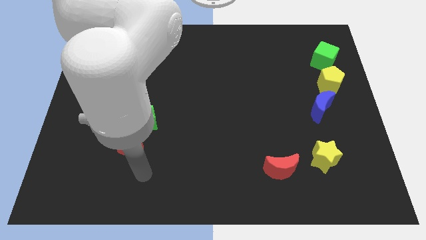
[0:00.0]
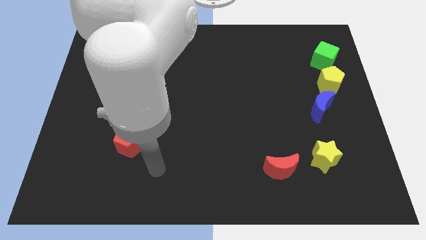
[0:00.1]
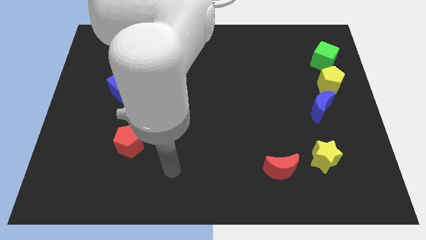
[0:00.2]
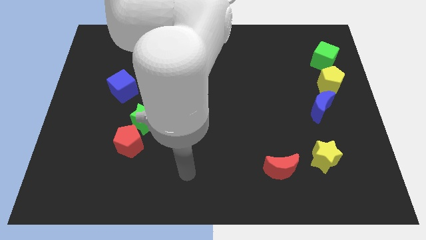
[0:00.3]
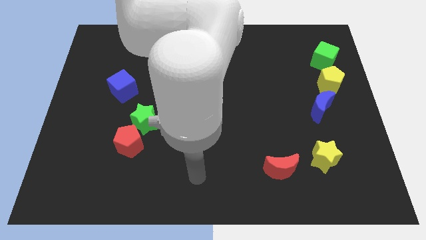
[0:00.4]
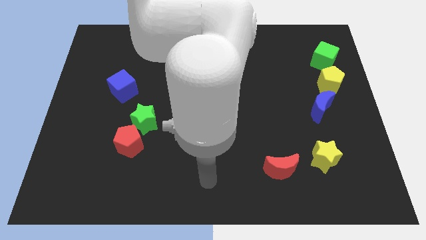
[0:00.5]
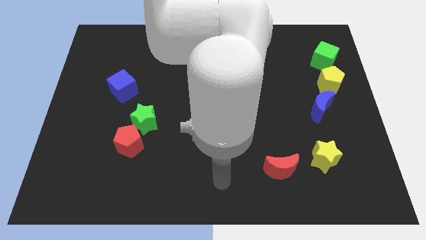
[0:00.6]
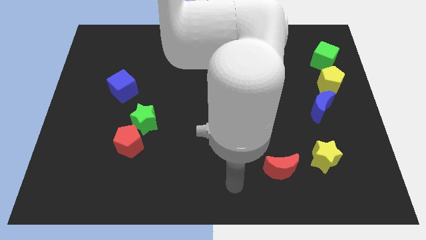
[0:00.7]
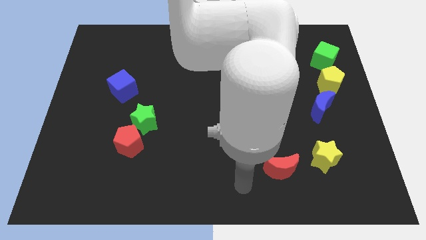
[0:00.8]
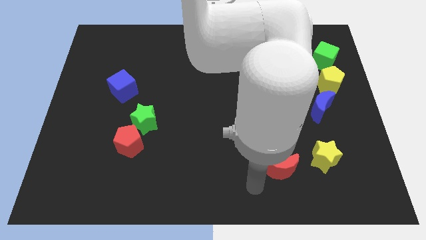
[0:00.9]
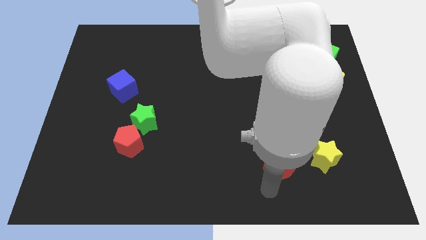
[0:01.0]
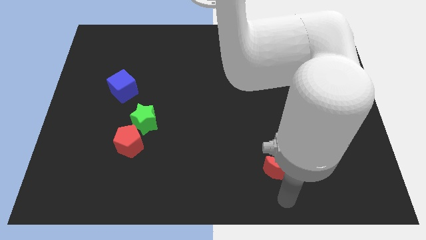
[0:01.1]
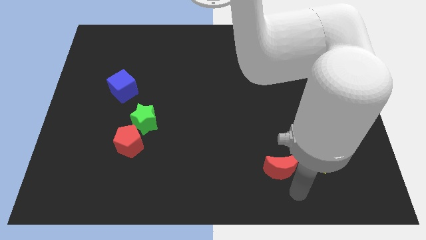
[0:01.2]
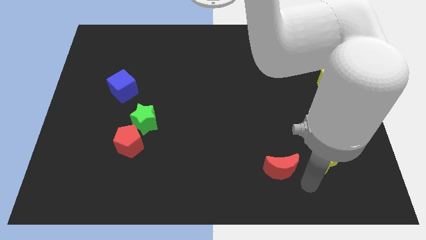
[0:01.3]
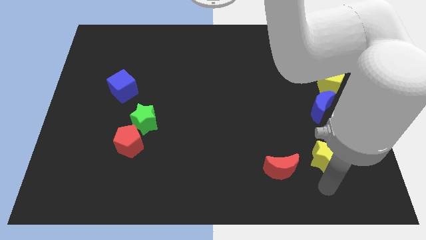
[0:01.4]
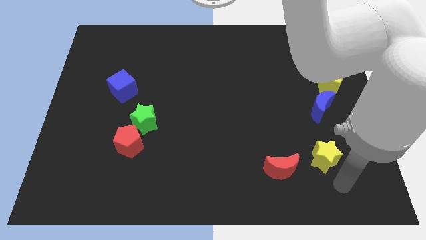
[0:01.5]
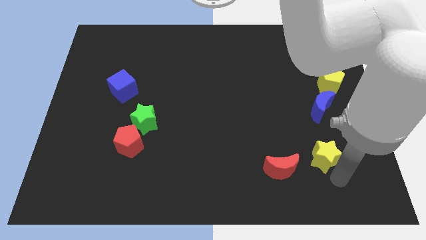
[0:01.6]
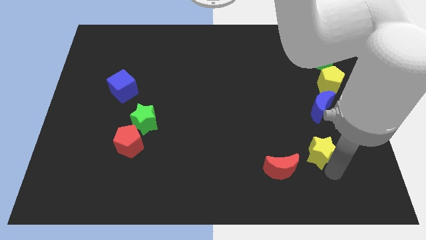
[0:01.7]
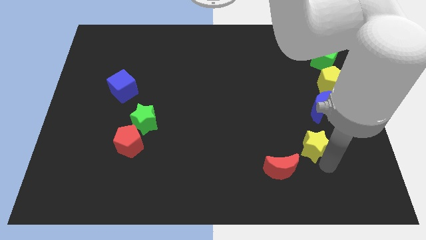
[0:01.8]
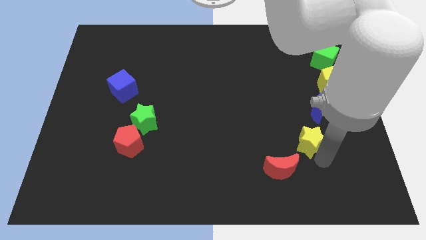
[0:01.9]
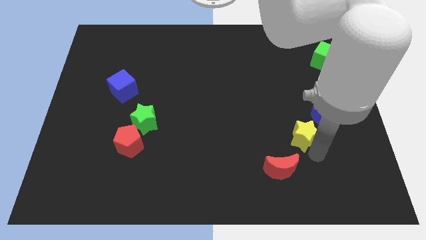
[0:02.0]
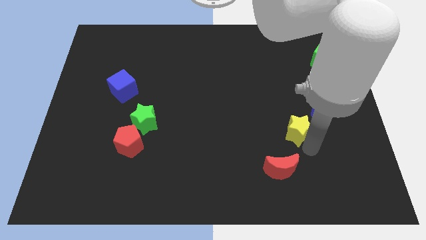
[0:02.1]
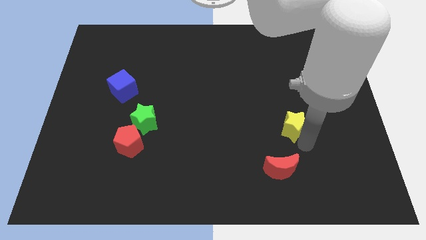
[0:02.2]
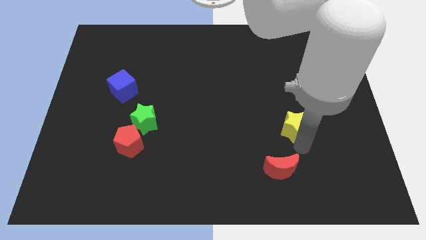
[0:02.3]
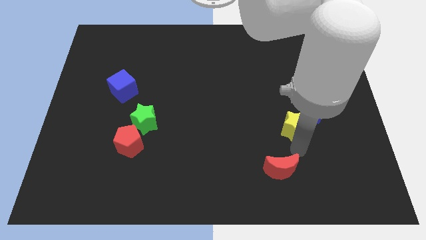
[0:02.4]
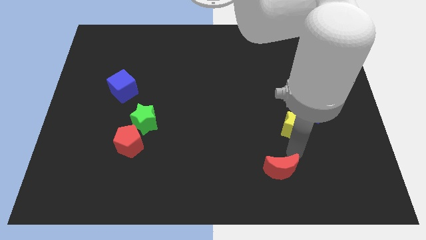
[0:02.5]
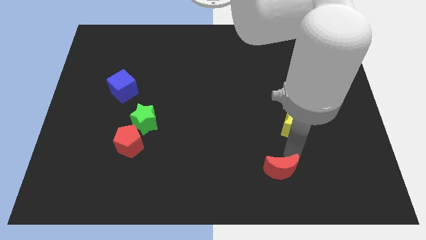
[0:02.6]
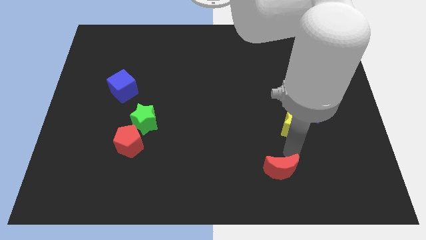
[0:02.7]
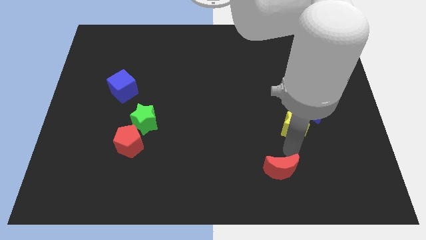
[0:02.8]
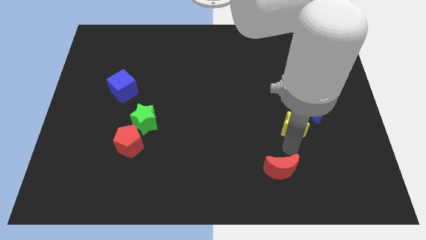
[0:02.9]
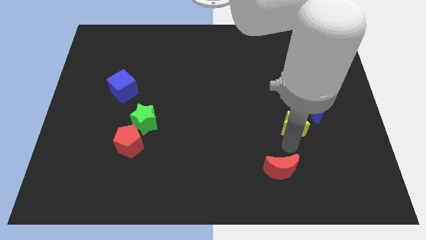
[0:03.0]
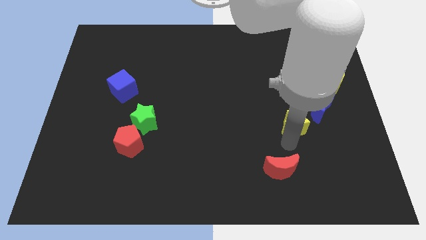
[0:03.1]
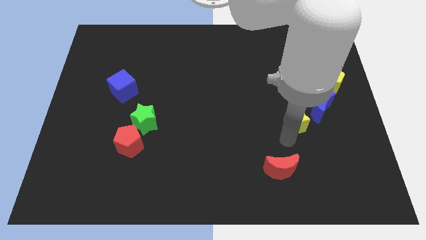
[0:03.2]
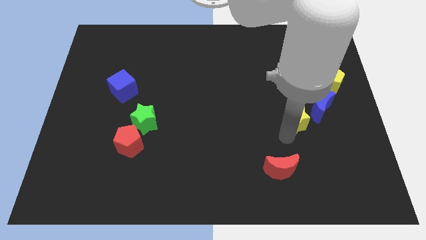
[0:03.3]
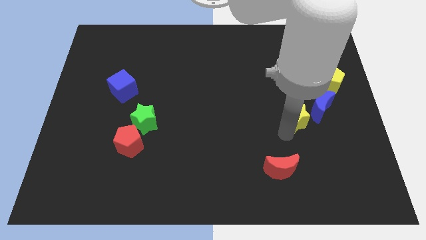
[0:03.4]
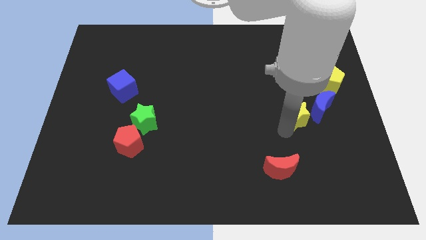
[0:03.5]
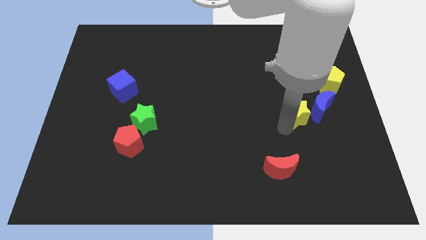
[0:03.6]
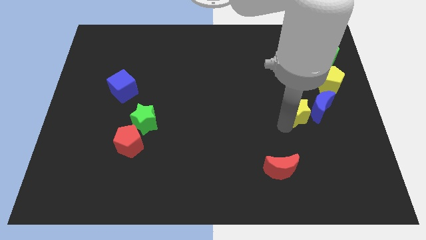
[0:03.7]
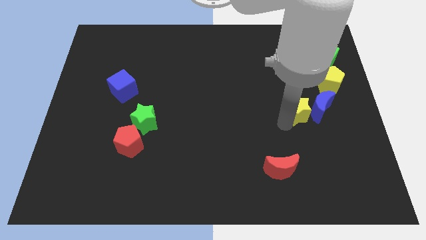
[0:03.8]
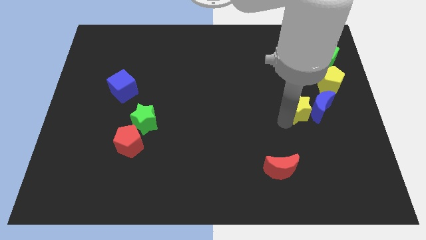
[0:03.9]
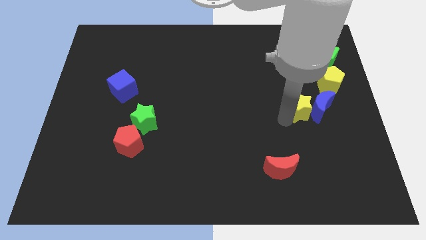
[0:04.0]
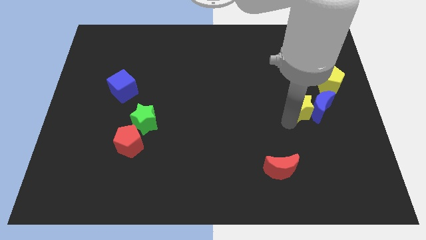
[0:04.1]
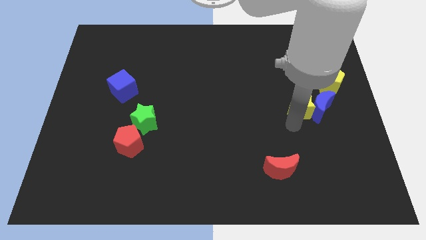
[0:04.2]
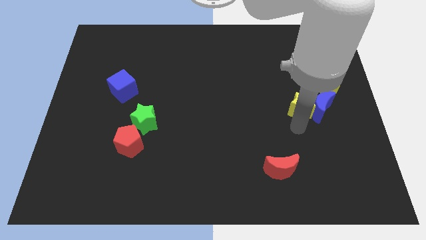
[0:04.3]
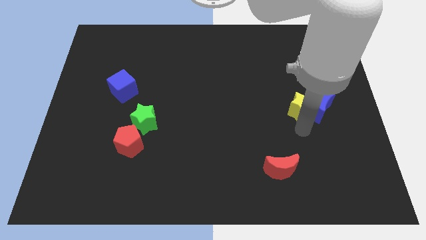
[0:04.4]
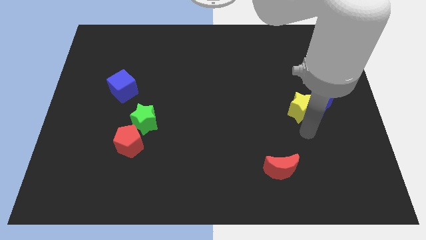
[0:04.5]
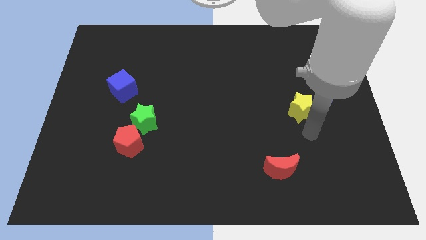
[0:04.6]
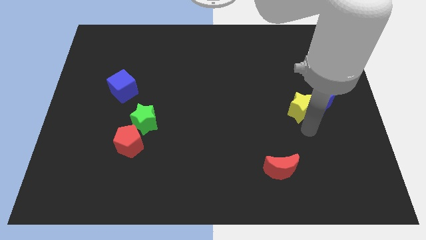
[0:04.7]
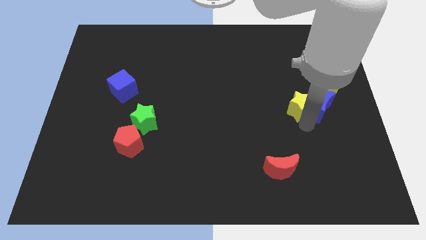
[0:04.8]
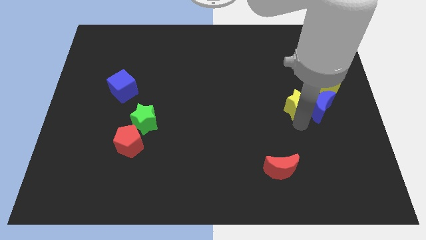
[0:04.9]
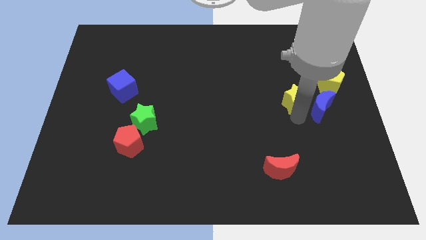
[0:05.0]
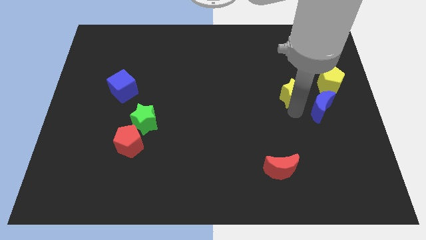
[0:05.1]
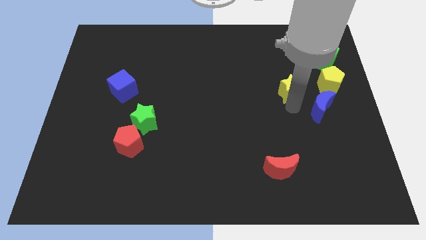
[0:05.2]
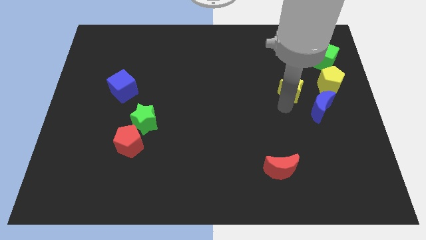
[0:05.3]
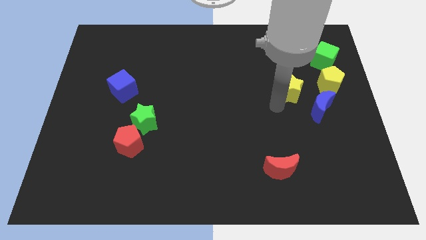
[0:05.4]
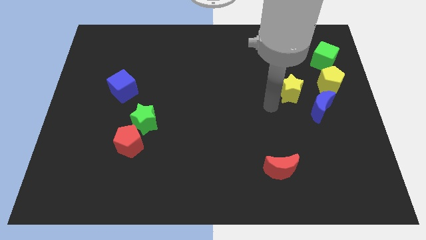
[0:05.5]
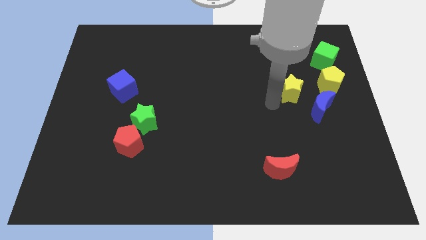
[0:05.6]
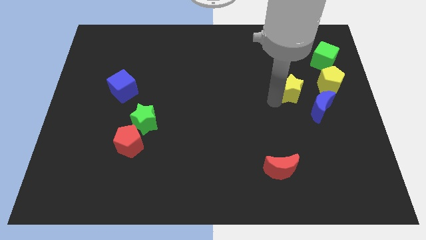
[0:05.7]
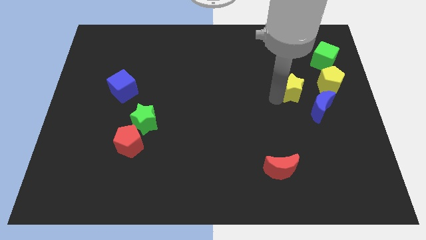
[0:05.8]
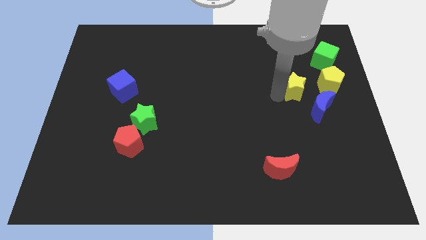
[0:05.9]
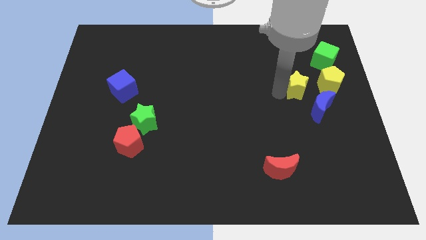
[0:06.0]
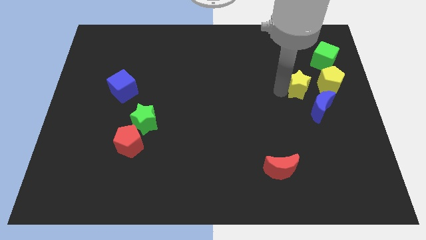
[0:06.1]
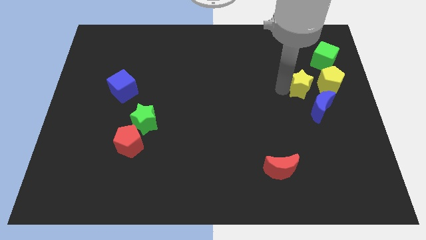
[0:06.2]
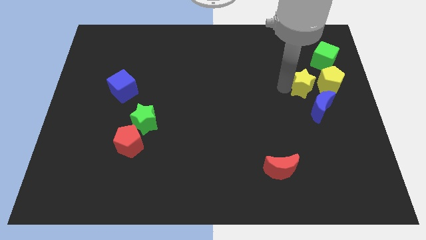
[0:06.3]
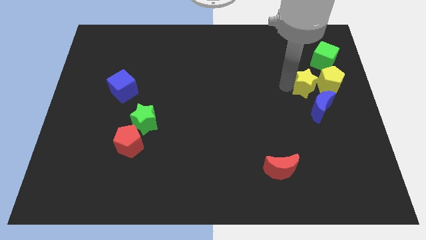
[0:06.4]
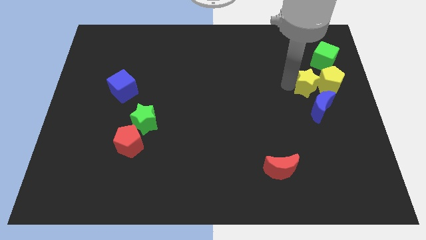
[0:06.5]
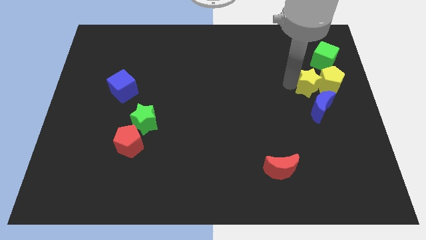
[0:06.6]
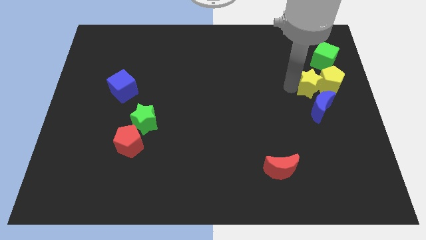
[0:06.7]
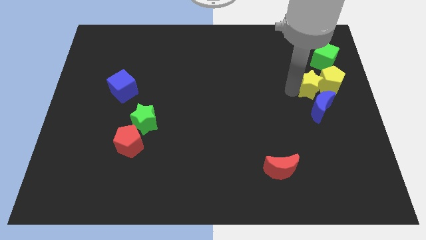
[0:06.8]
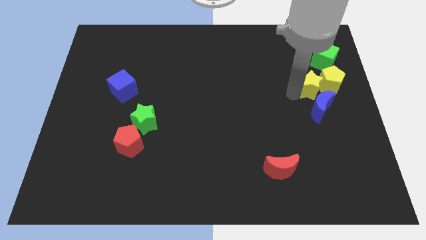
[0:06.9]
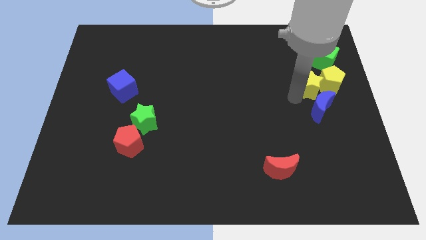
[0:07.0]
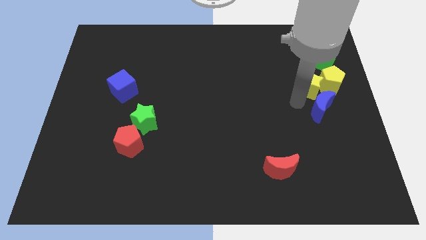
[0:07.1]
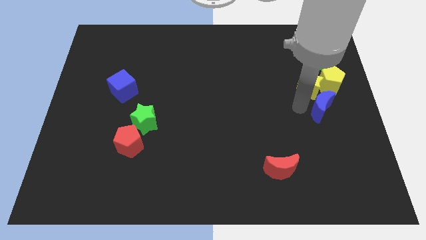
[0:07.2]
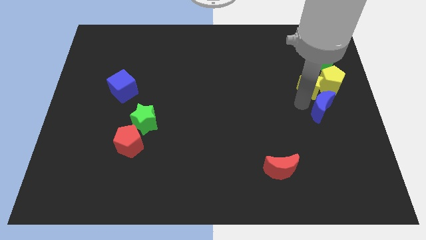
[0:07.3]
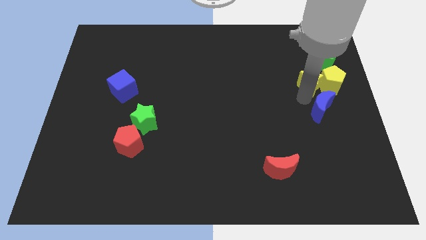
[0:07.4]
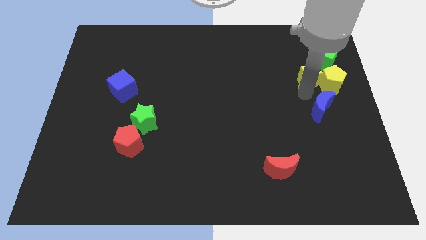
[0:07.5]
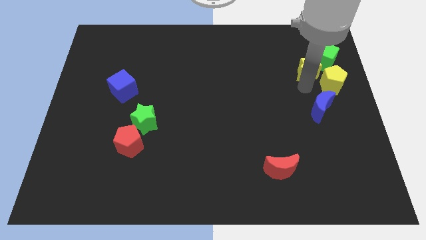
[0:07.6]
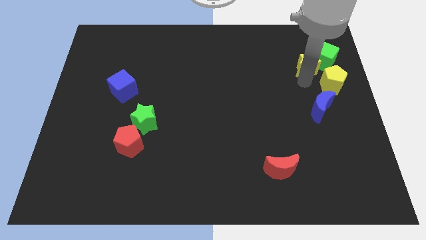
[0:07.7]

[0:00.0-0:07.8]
push the yellow star to the green cube
